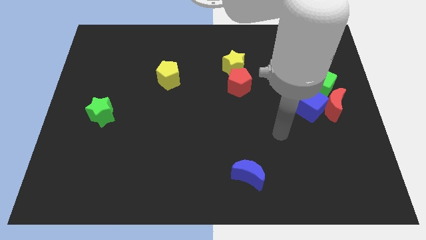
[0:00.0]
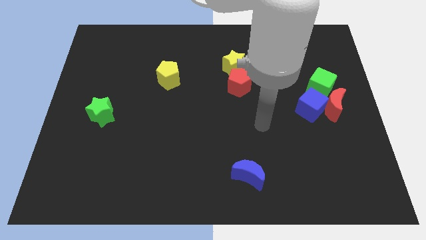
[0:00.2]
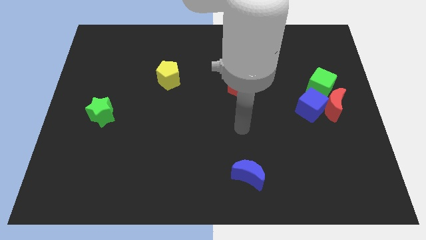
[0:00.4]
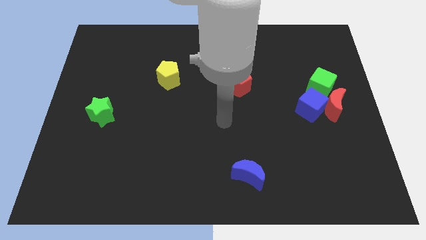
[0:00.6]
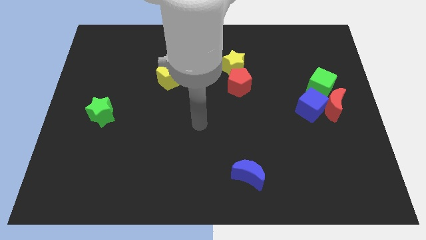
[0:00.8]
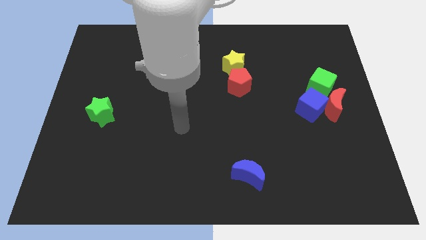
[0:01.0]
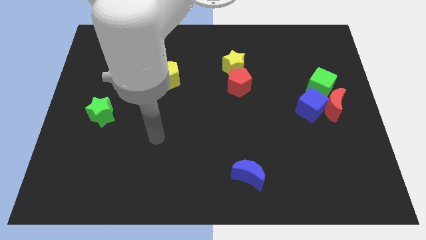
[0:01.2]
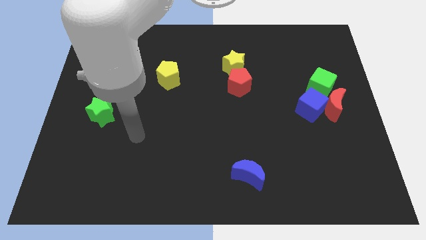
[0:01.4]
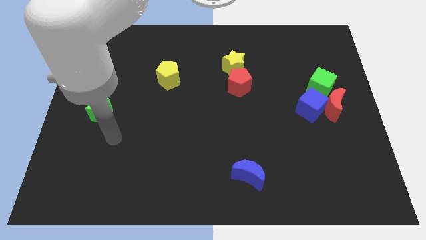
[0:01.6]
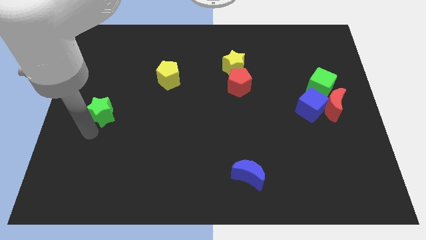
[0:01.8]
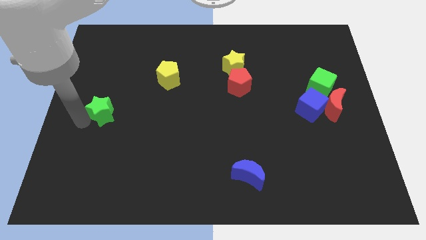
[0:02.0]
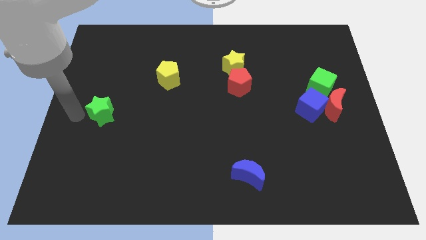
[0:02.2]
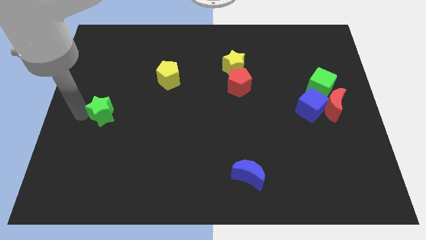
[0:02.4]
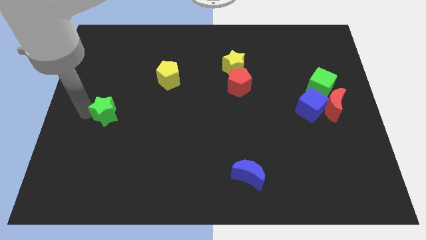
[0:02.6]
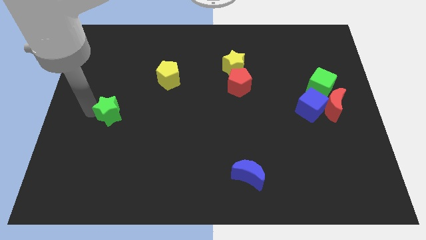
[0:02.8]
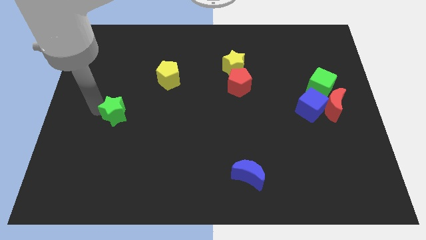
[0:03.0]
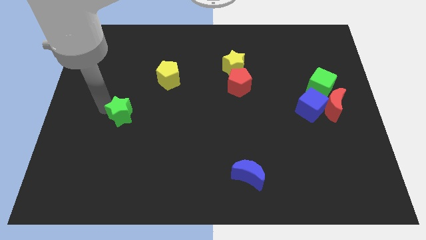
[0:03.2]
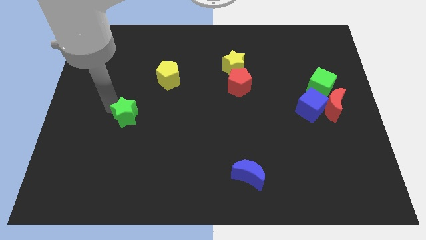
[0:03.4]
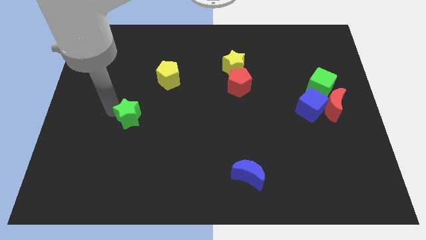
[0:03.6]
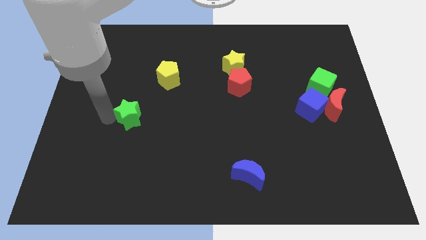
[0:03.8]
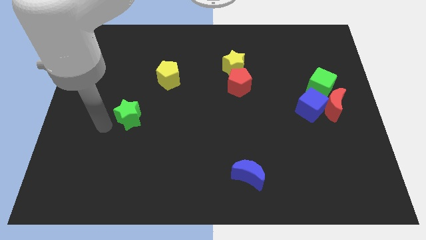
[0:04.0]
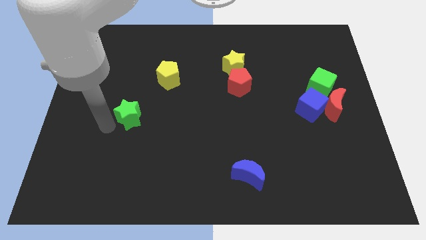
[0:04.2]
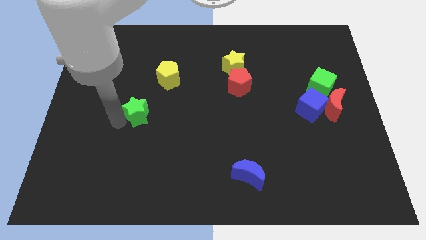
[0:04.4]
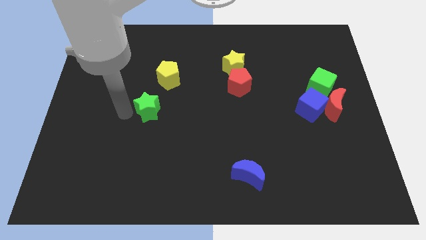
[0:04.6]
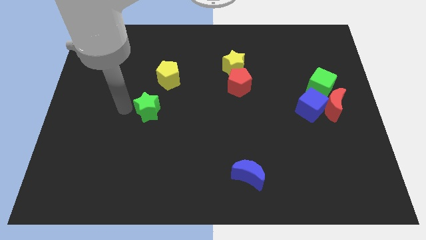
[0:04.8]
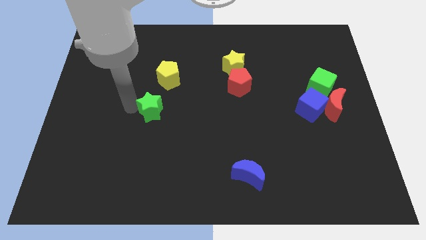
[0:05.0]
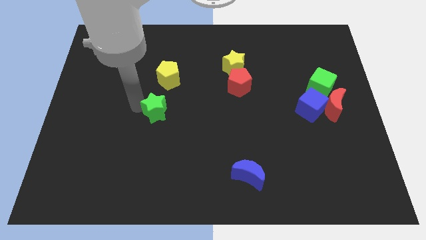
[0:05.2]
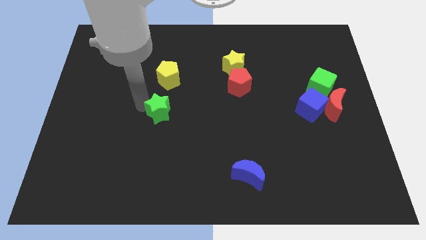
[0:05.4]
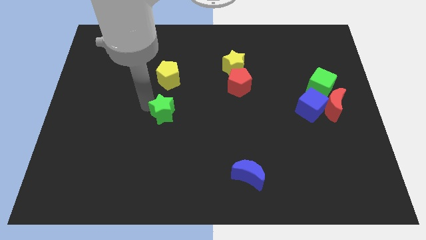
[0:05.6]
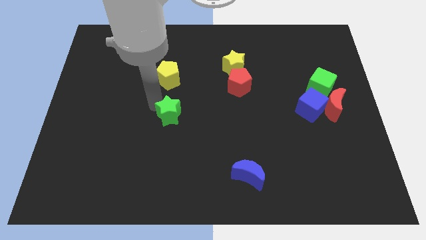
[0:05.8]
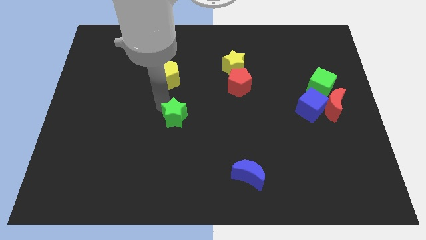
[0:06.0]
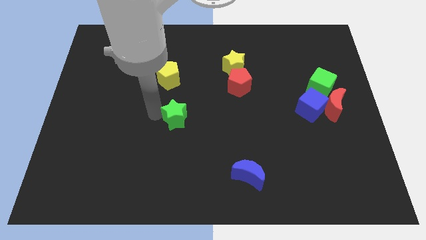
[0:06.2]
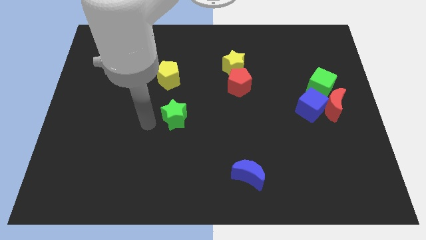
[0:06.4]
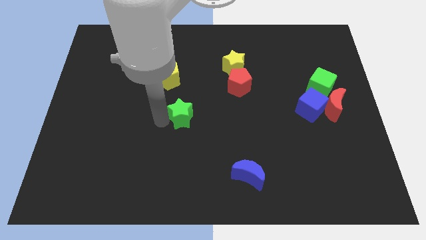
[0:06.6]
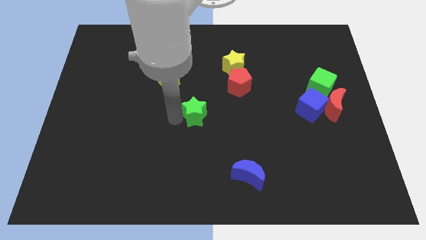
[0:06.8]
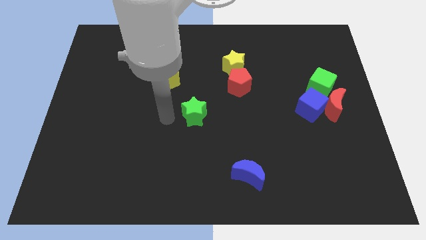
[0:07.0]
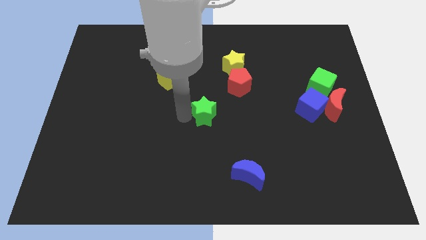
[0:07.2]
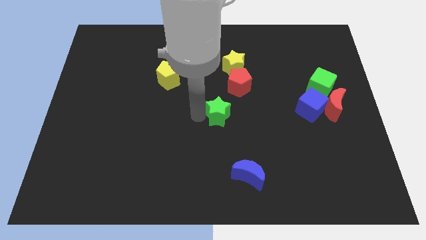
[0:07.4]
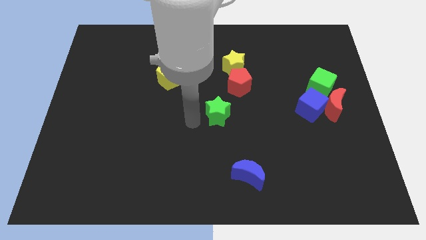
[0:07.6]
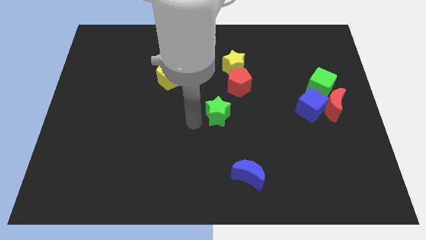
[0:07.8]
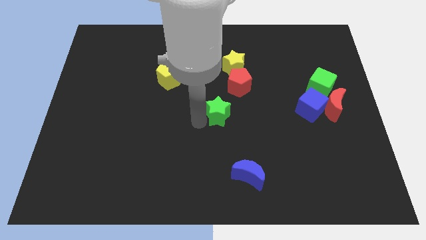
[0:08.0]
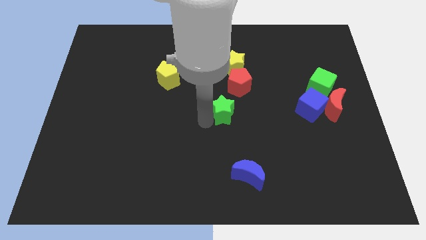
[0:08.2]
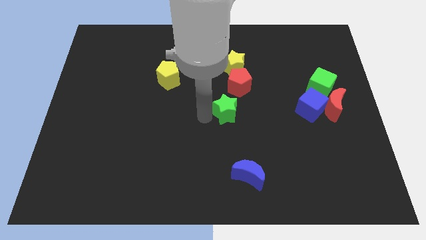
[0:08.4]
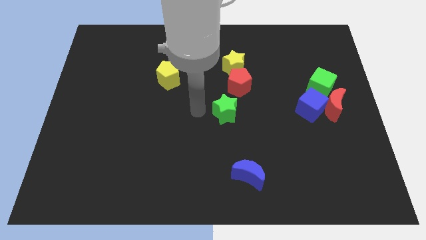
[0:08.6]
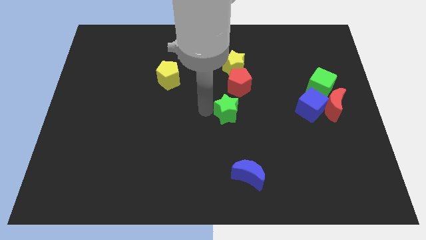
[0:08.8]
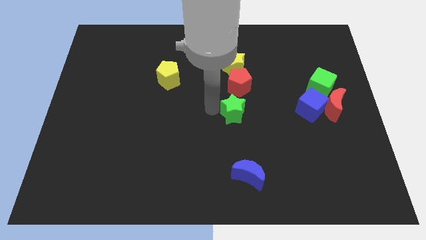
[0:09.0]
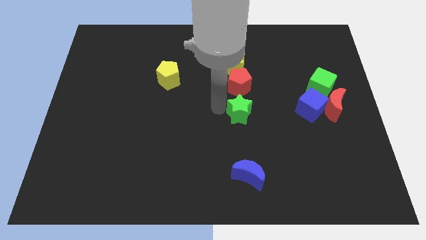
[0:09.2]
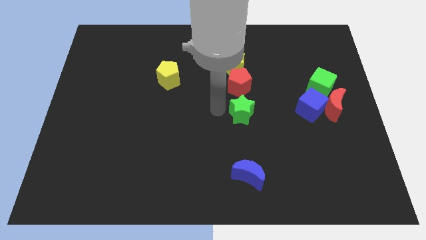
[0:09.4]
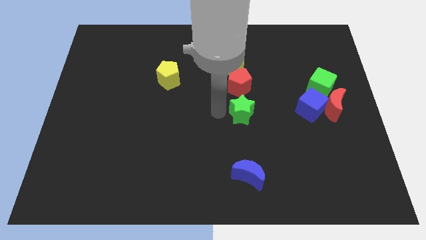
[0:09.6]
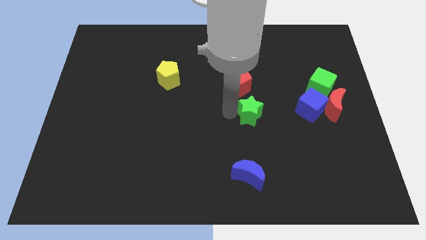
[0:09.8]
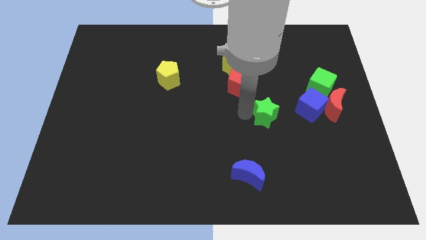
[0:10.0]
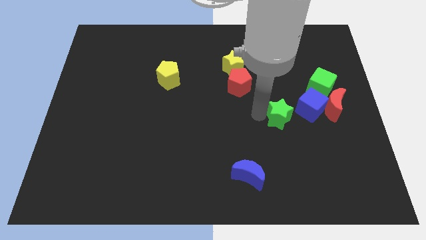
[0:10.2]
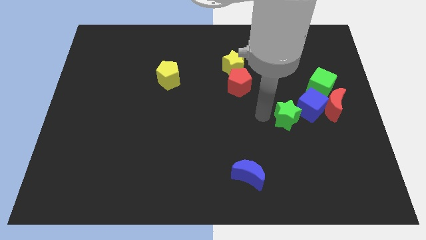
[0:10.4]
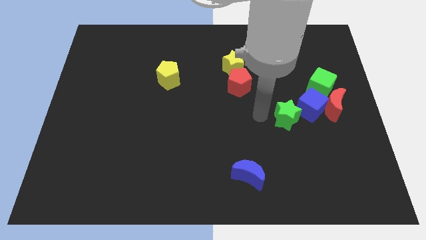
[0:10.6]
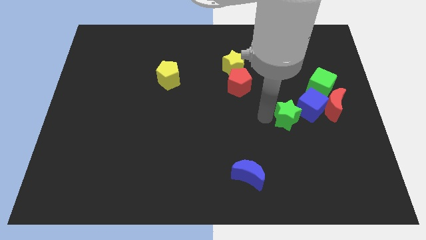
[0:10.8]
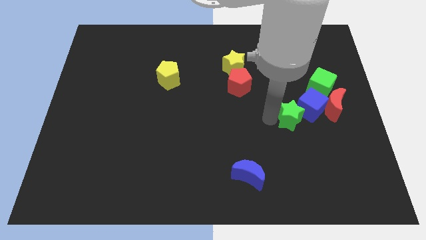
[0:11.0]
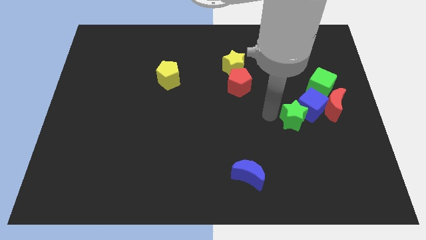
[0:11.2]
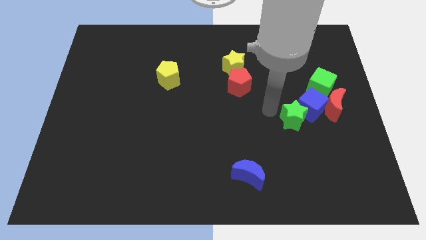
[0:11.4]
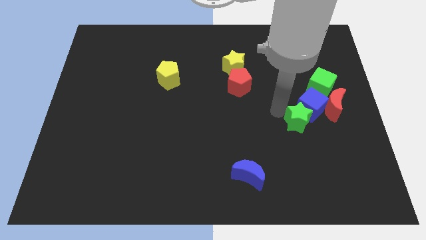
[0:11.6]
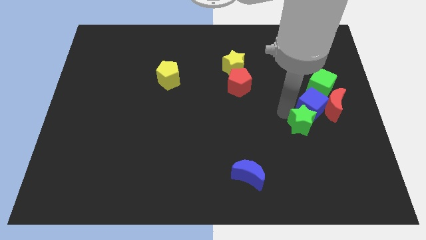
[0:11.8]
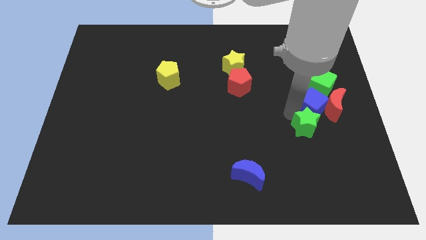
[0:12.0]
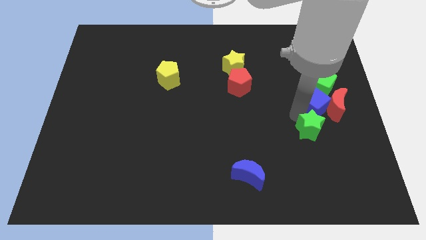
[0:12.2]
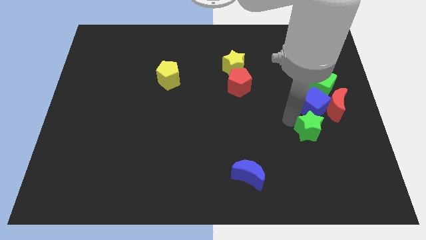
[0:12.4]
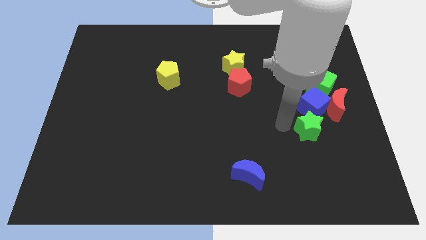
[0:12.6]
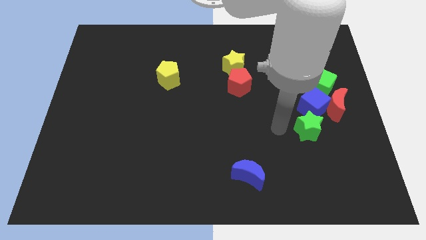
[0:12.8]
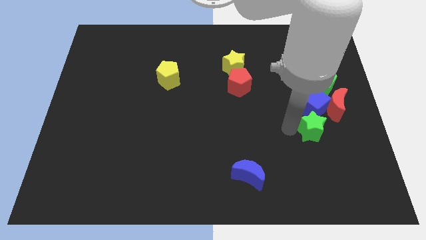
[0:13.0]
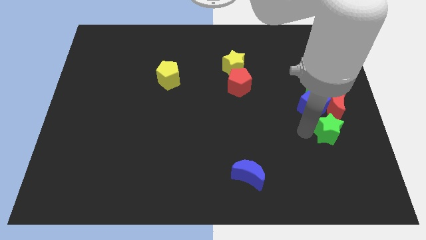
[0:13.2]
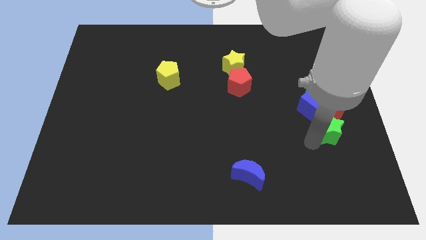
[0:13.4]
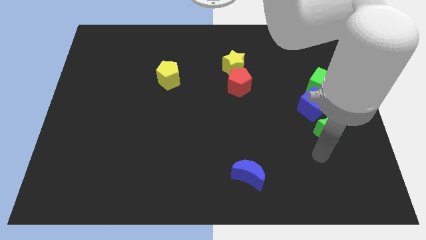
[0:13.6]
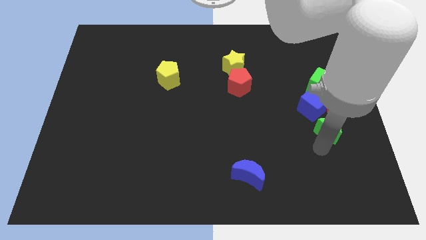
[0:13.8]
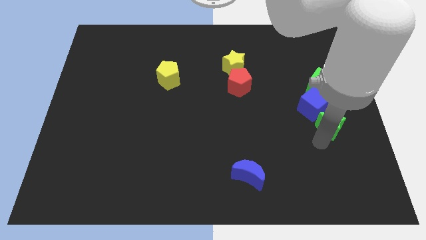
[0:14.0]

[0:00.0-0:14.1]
push the green star close to the red moon
